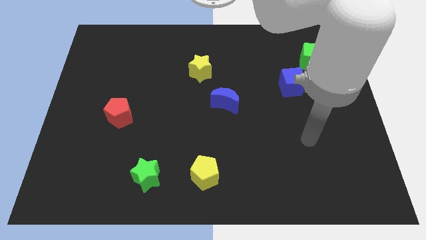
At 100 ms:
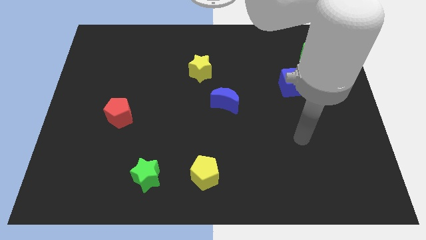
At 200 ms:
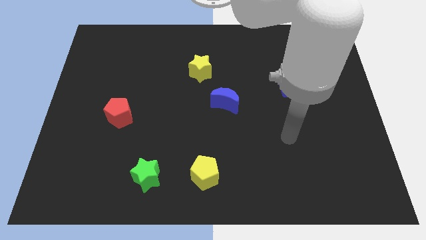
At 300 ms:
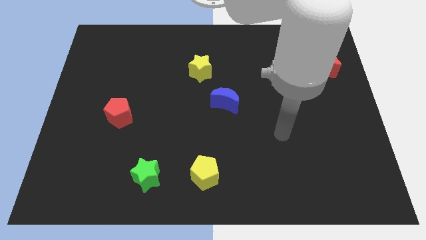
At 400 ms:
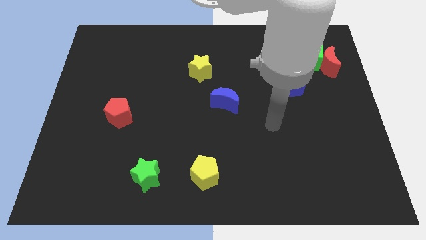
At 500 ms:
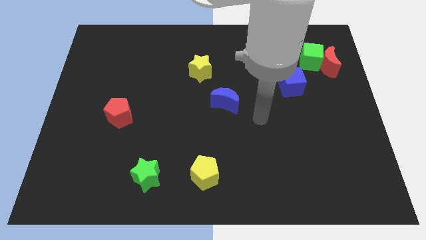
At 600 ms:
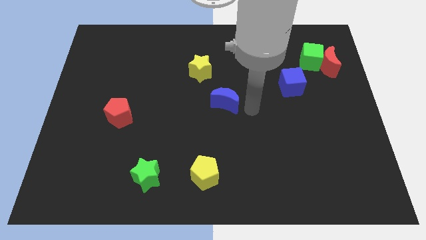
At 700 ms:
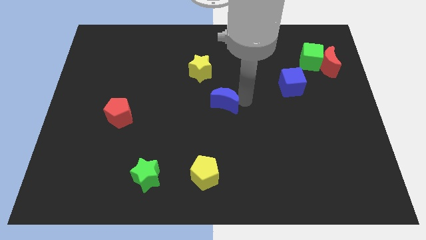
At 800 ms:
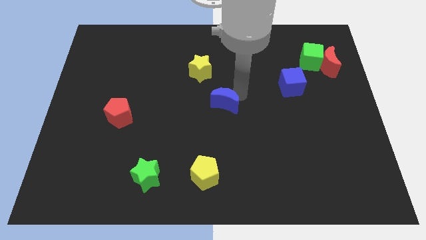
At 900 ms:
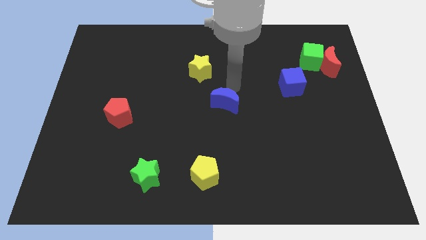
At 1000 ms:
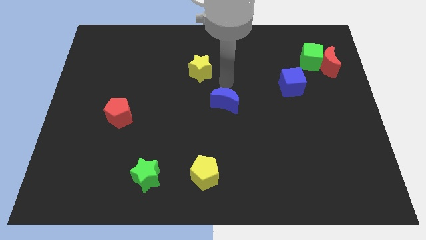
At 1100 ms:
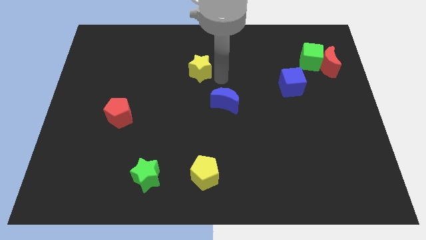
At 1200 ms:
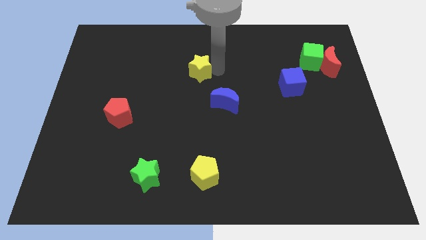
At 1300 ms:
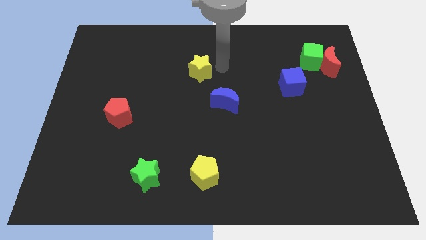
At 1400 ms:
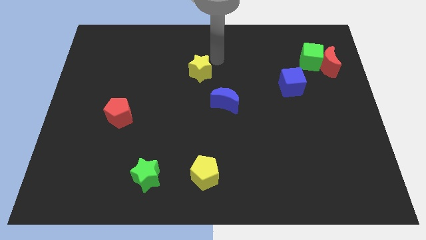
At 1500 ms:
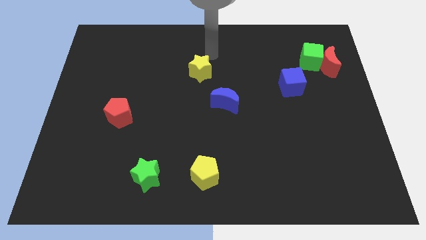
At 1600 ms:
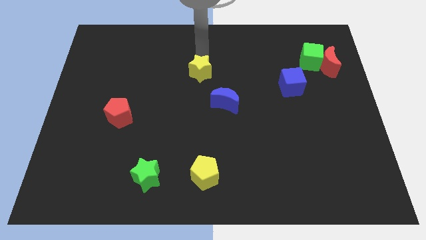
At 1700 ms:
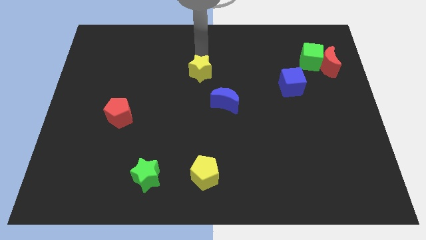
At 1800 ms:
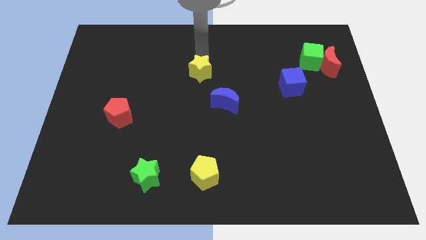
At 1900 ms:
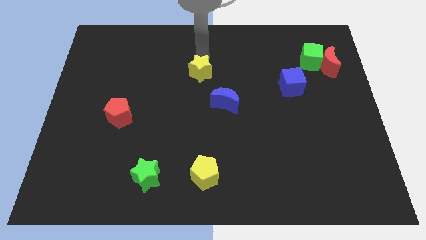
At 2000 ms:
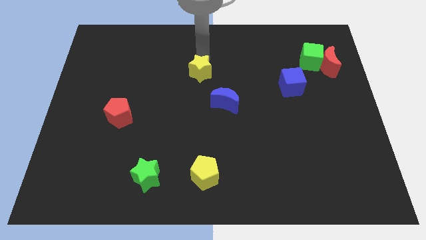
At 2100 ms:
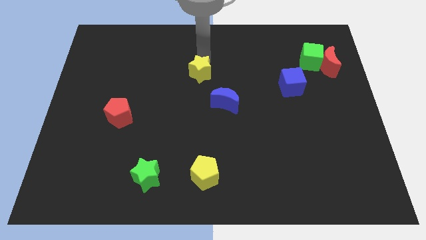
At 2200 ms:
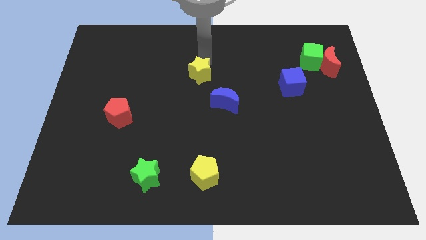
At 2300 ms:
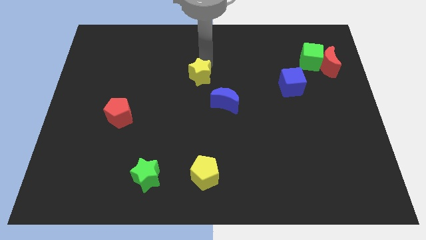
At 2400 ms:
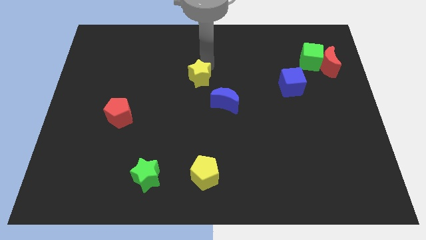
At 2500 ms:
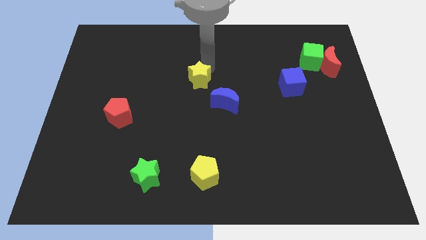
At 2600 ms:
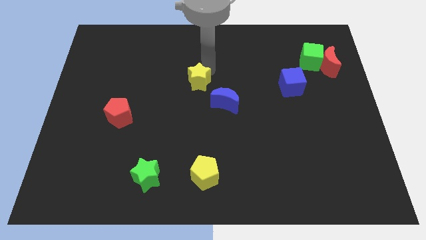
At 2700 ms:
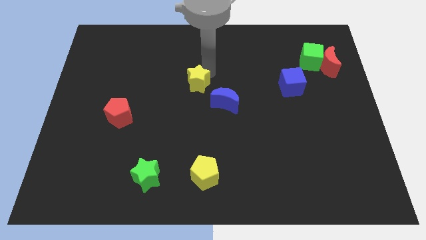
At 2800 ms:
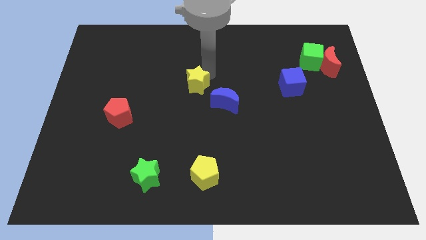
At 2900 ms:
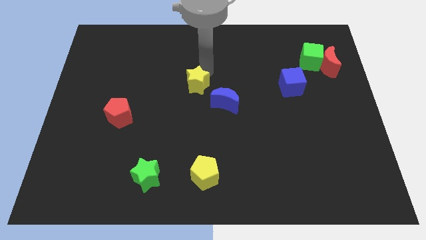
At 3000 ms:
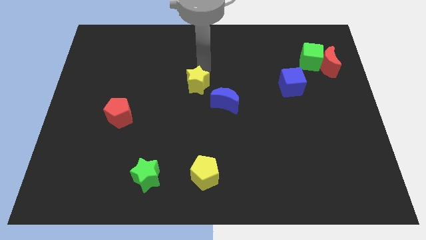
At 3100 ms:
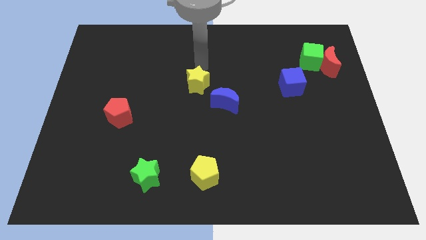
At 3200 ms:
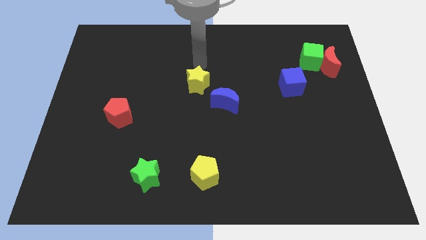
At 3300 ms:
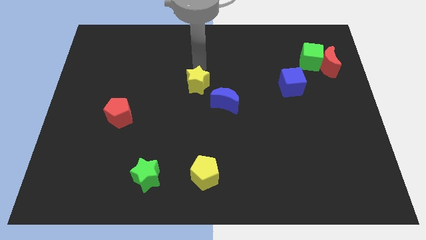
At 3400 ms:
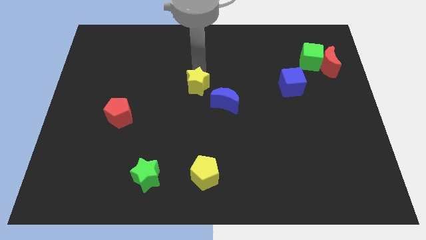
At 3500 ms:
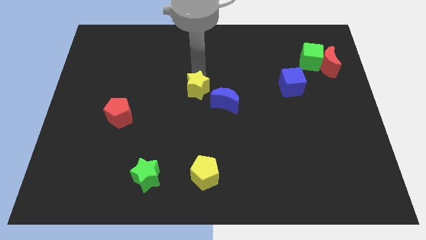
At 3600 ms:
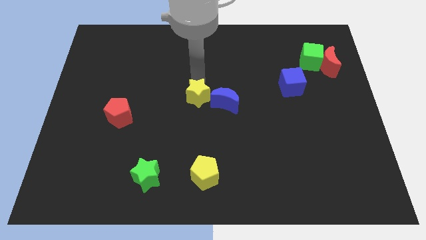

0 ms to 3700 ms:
slightly push the yellow star downwards

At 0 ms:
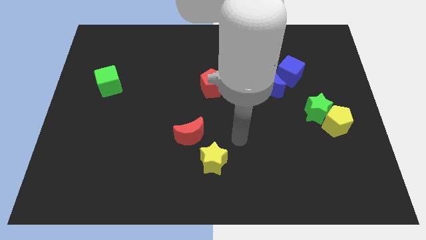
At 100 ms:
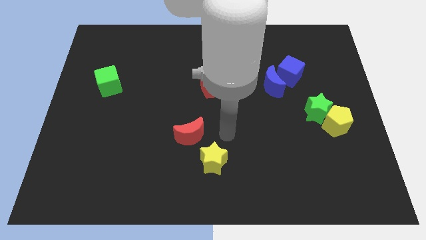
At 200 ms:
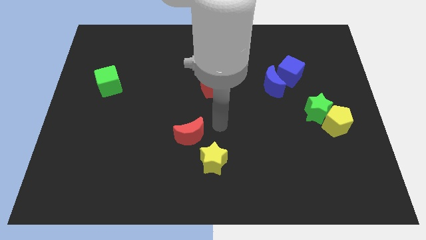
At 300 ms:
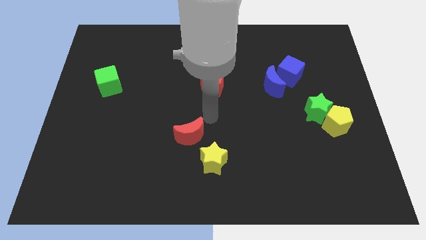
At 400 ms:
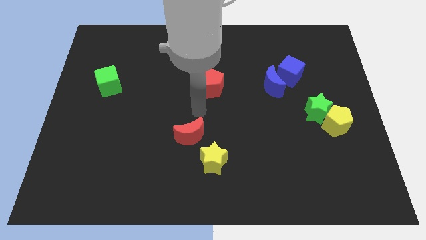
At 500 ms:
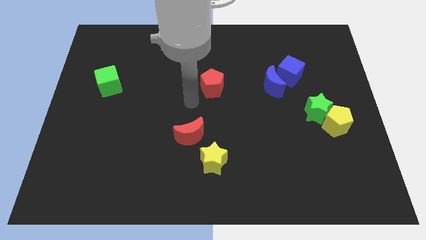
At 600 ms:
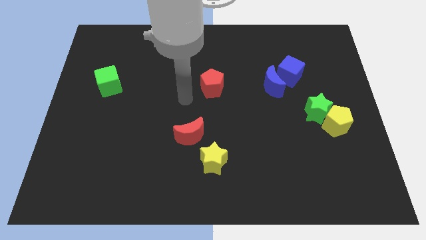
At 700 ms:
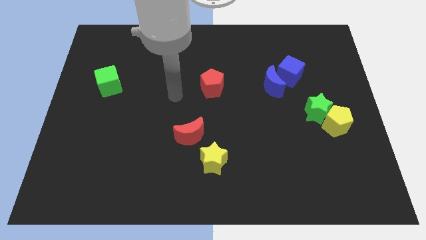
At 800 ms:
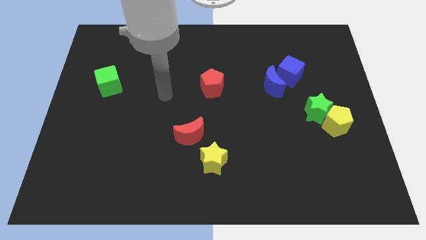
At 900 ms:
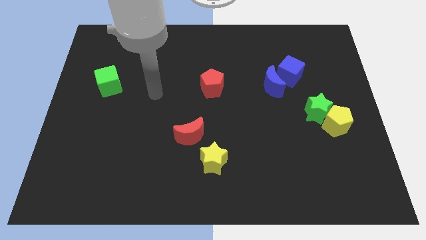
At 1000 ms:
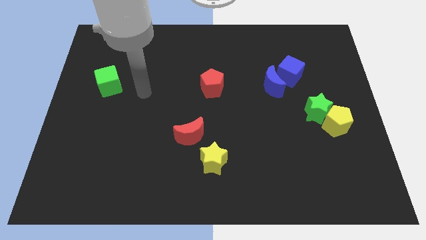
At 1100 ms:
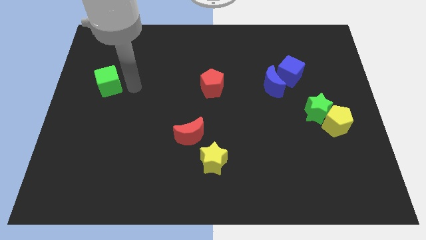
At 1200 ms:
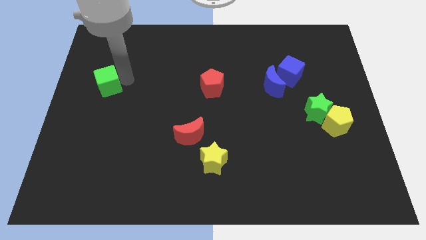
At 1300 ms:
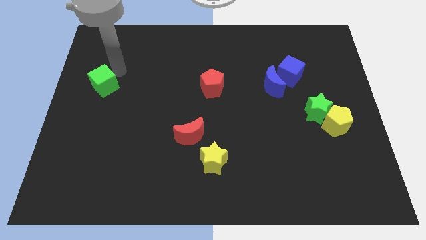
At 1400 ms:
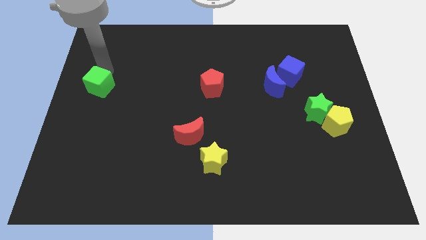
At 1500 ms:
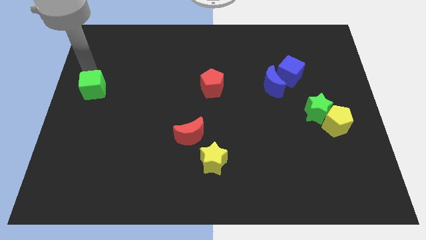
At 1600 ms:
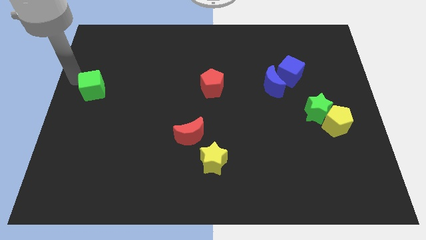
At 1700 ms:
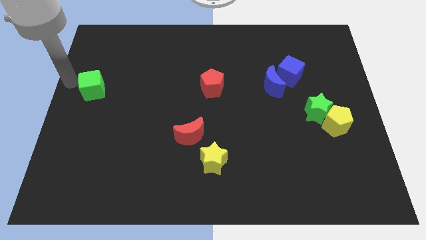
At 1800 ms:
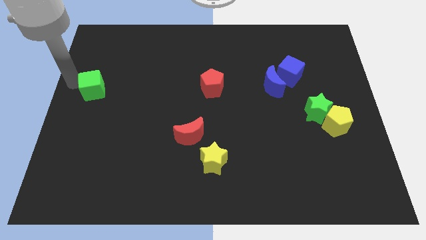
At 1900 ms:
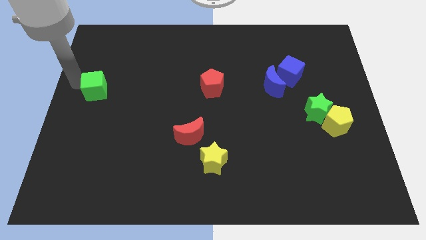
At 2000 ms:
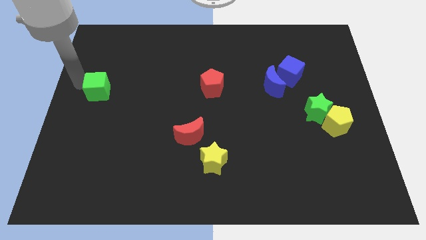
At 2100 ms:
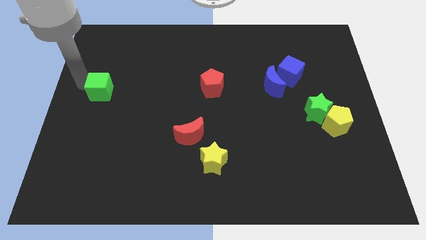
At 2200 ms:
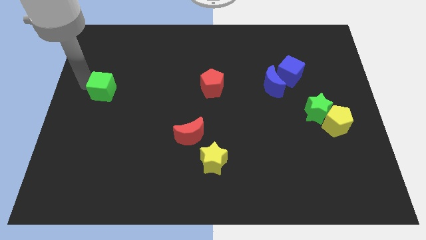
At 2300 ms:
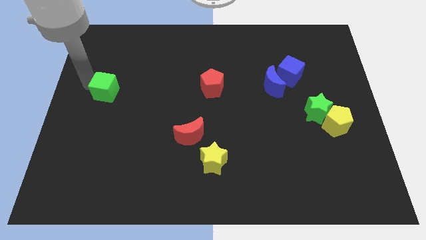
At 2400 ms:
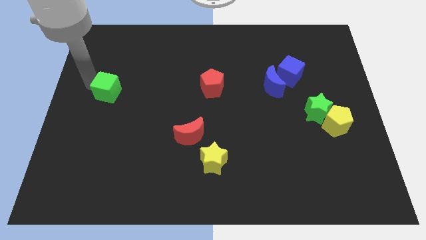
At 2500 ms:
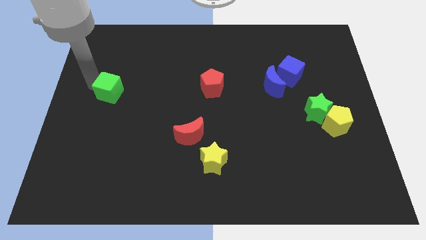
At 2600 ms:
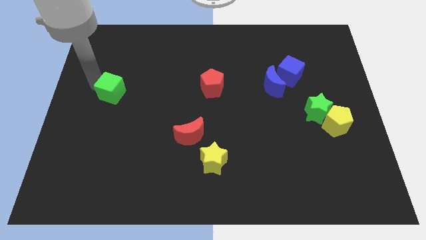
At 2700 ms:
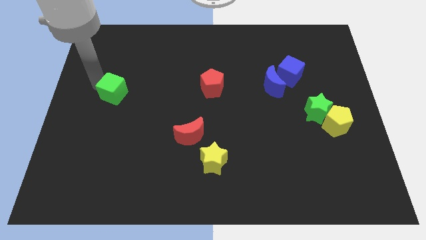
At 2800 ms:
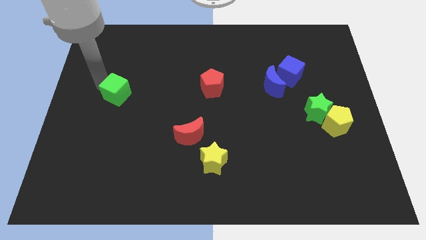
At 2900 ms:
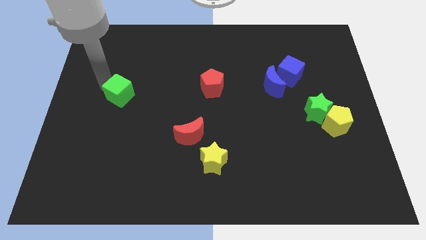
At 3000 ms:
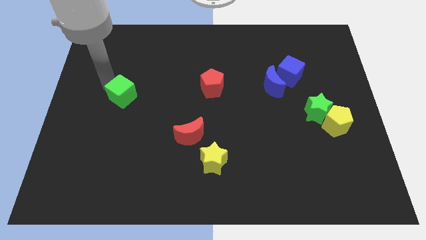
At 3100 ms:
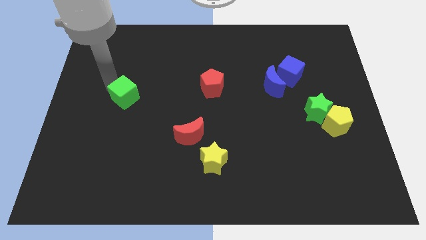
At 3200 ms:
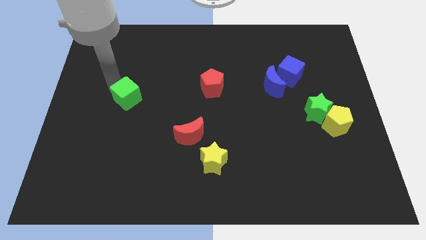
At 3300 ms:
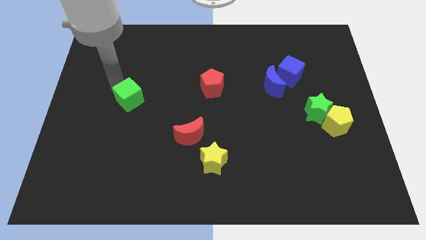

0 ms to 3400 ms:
move the green cube diagonally down and right somewhat

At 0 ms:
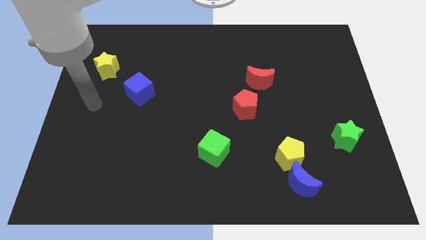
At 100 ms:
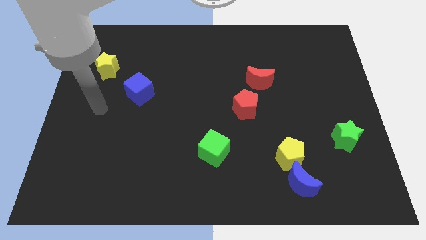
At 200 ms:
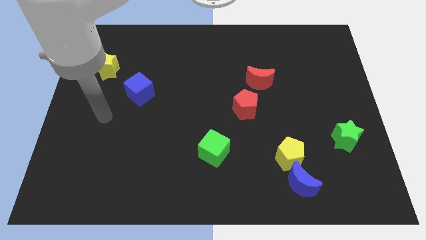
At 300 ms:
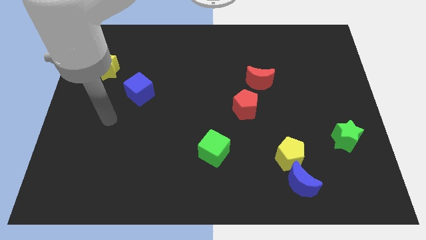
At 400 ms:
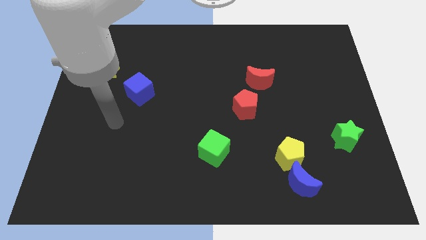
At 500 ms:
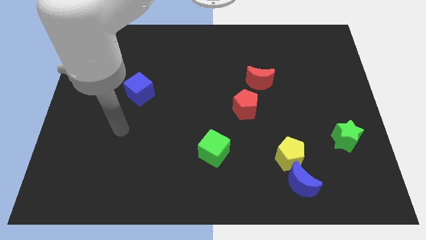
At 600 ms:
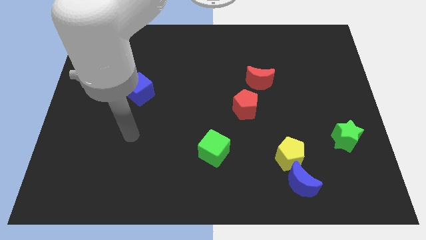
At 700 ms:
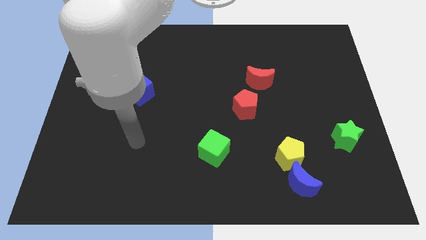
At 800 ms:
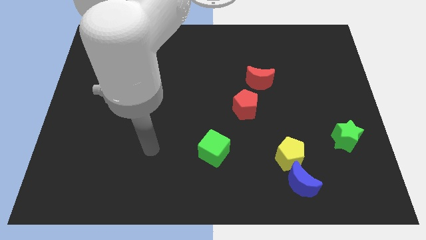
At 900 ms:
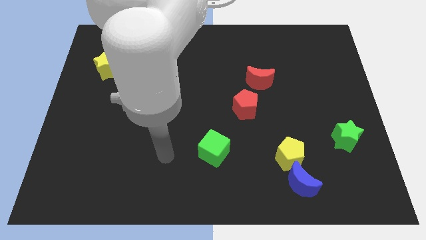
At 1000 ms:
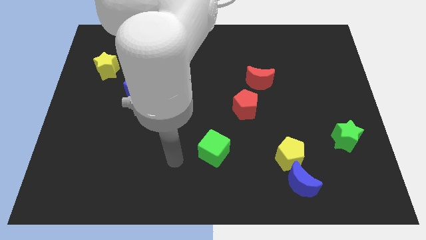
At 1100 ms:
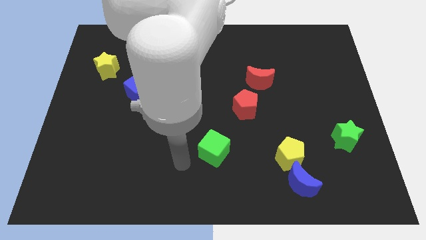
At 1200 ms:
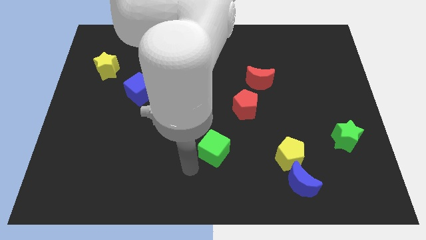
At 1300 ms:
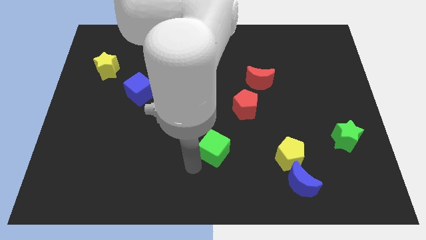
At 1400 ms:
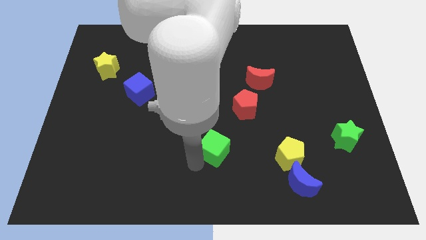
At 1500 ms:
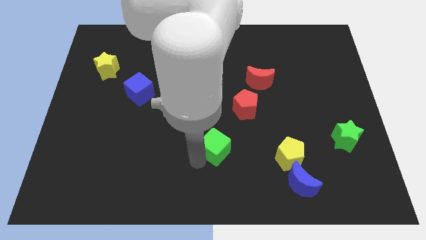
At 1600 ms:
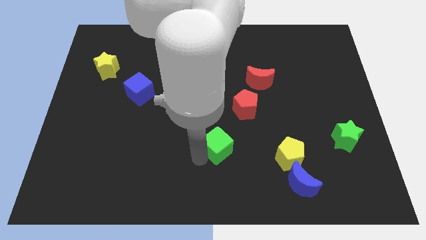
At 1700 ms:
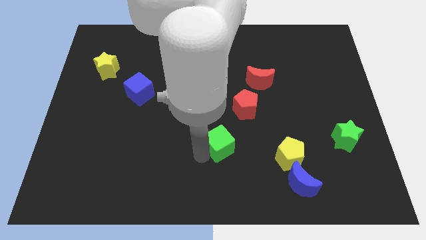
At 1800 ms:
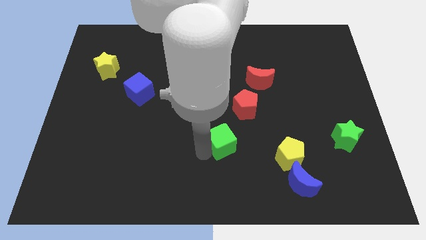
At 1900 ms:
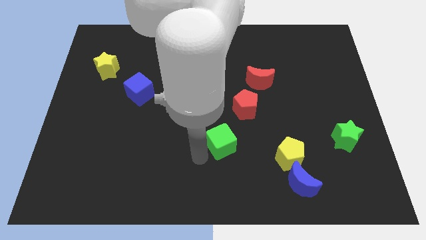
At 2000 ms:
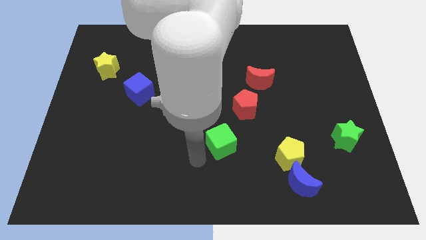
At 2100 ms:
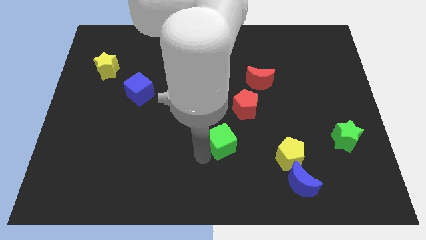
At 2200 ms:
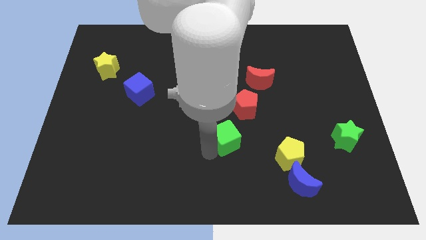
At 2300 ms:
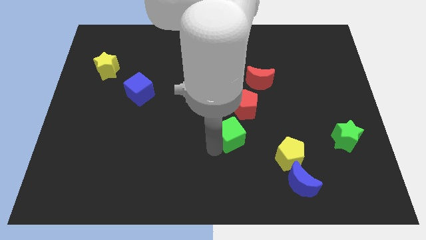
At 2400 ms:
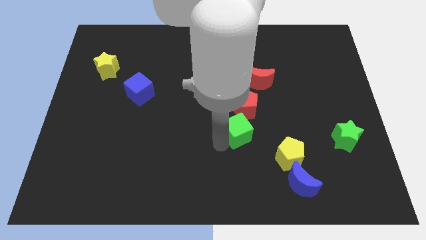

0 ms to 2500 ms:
slightly move the green cube upwards and then right
